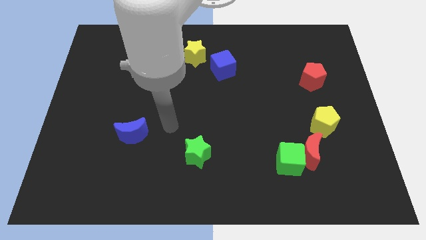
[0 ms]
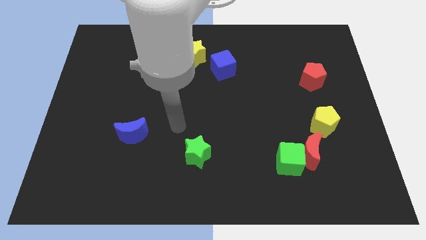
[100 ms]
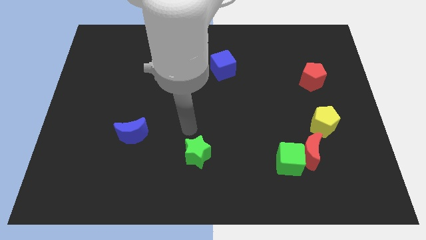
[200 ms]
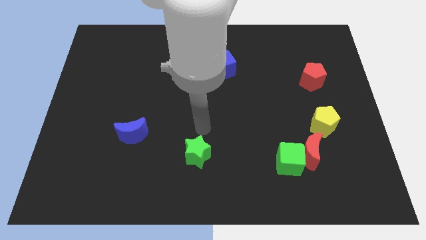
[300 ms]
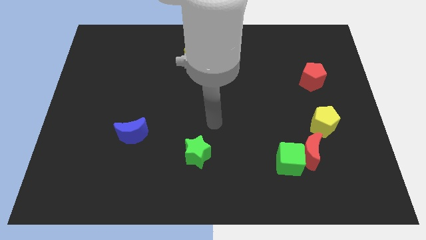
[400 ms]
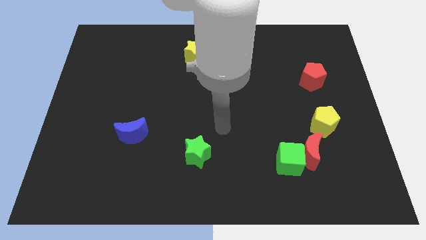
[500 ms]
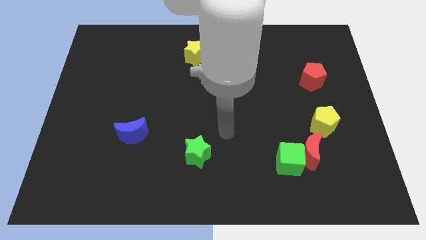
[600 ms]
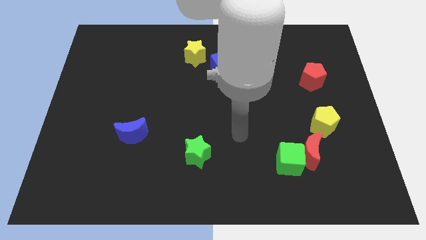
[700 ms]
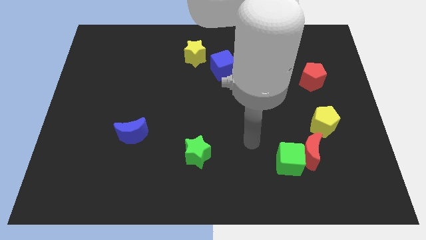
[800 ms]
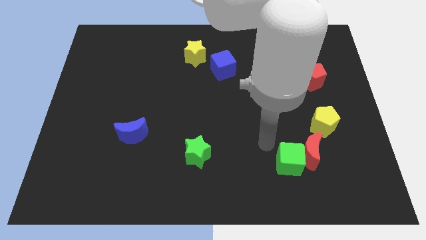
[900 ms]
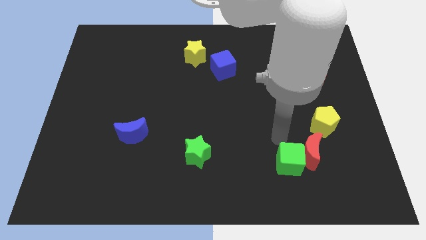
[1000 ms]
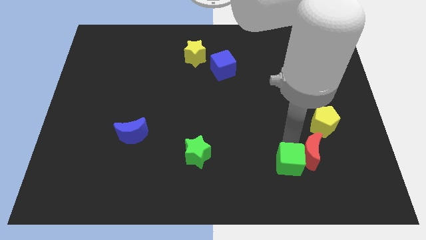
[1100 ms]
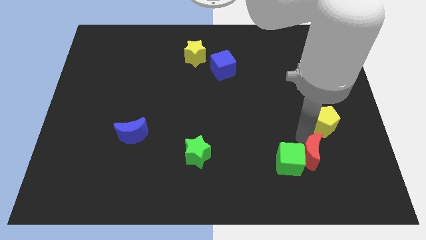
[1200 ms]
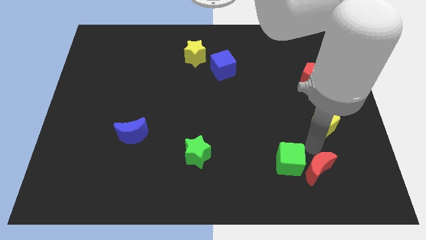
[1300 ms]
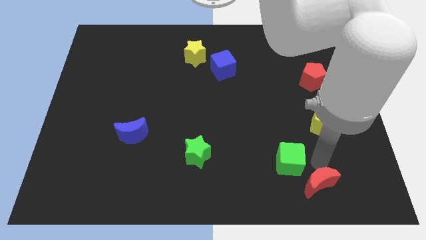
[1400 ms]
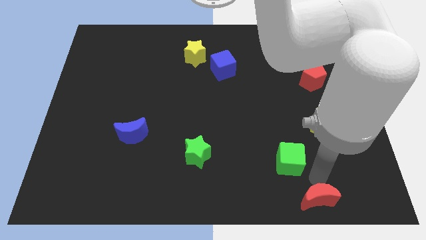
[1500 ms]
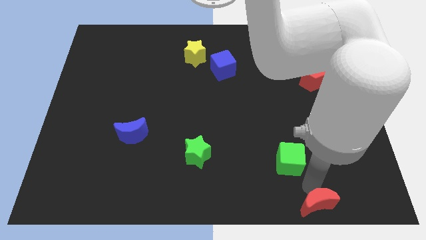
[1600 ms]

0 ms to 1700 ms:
pull the green cube apart from the red moon

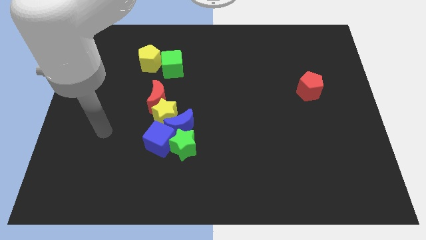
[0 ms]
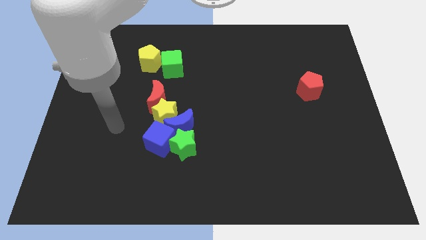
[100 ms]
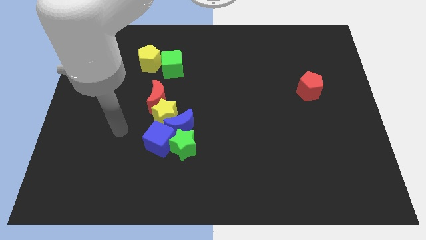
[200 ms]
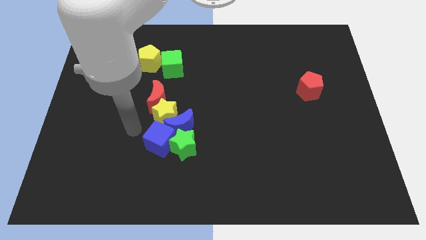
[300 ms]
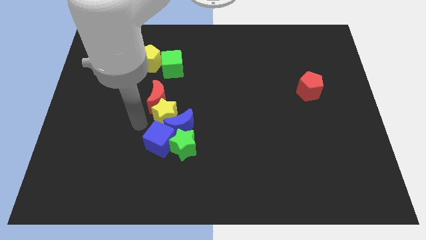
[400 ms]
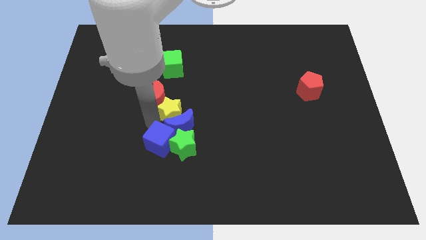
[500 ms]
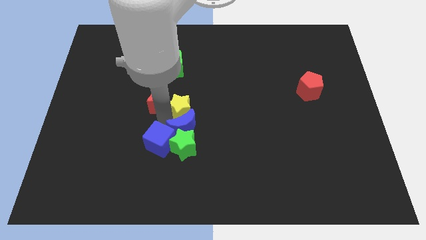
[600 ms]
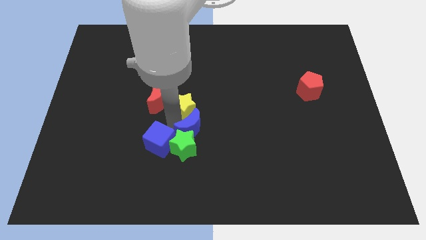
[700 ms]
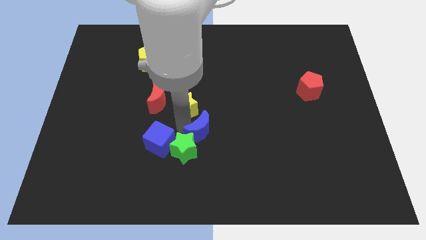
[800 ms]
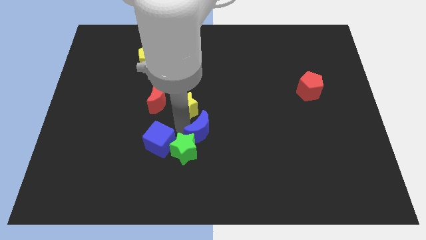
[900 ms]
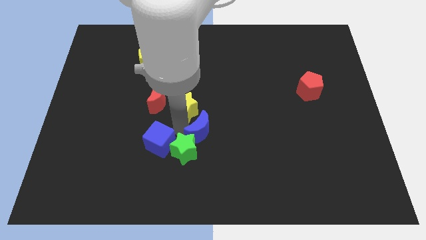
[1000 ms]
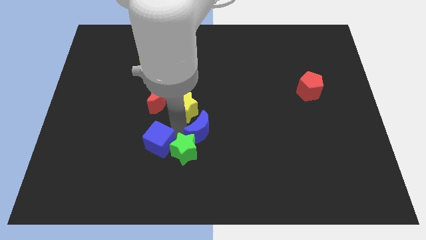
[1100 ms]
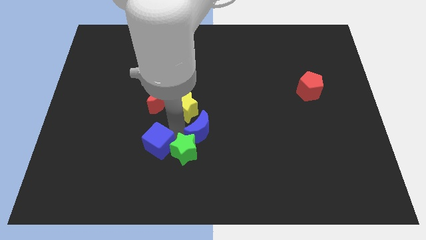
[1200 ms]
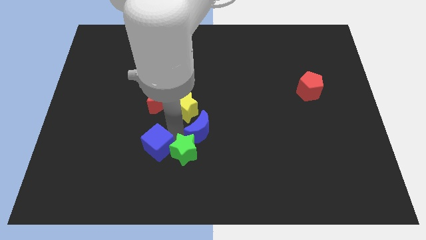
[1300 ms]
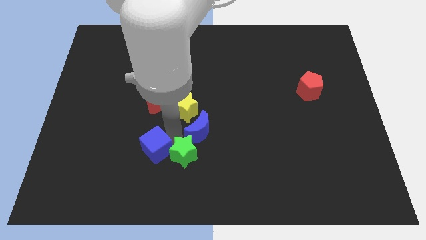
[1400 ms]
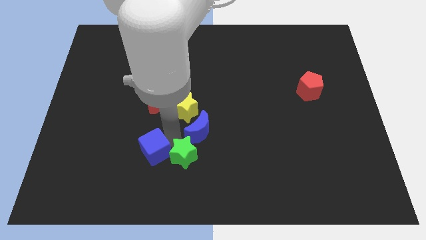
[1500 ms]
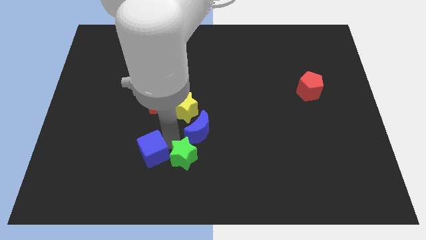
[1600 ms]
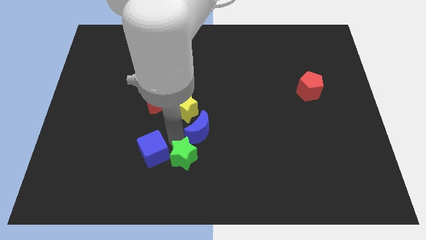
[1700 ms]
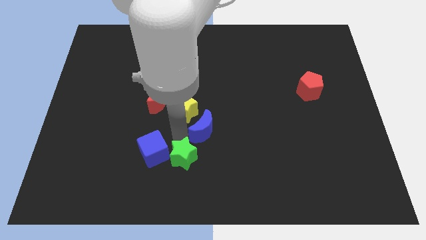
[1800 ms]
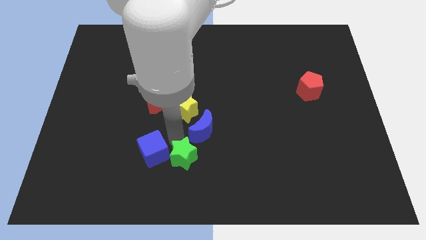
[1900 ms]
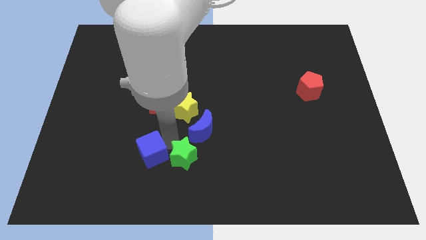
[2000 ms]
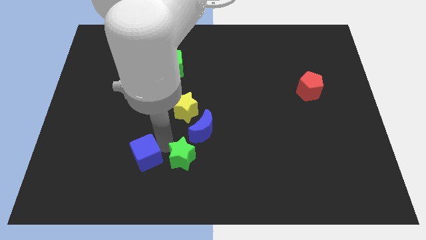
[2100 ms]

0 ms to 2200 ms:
move the blue cube away from the green star, blue moon, and yellow star

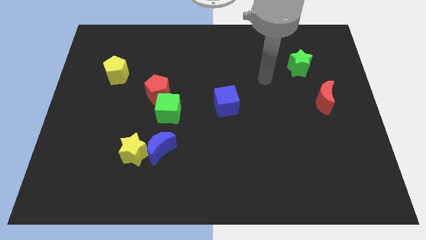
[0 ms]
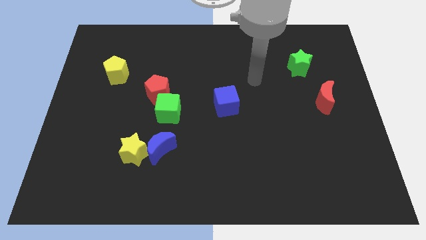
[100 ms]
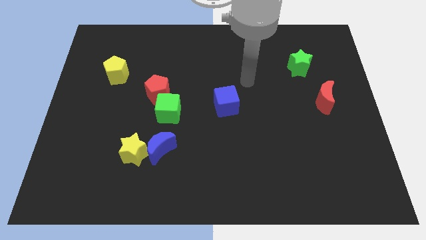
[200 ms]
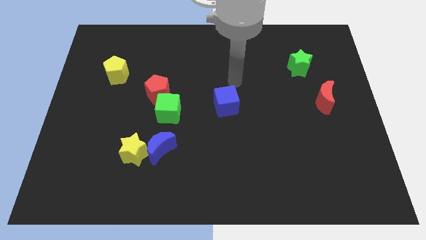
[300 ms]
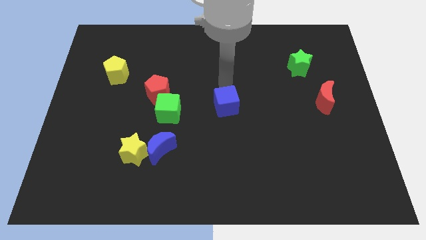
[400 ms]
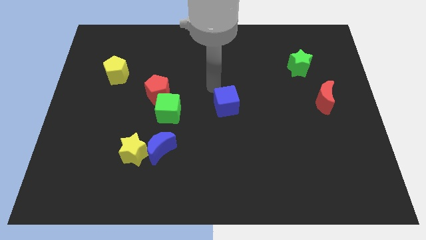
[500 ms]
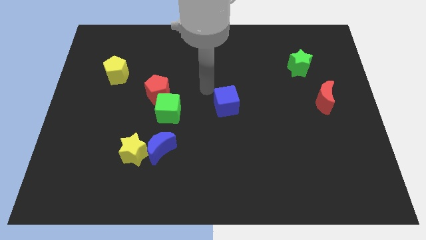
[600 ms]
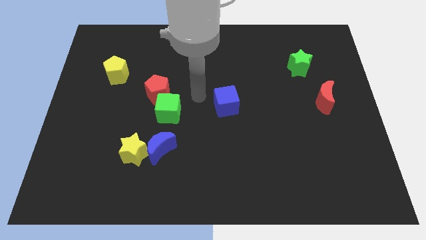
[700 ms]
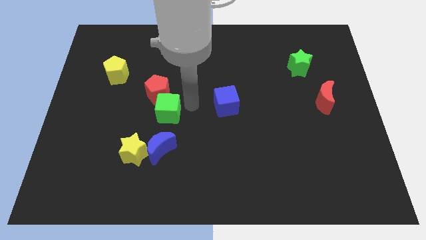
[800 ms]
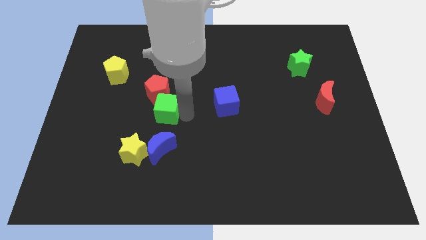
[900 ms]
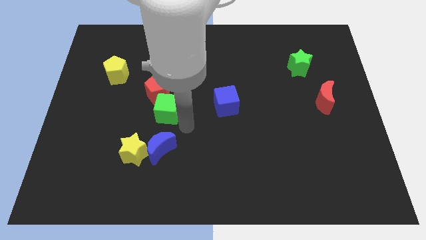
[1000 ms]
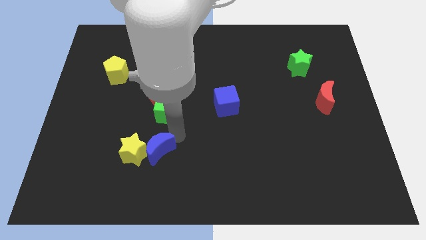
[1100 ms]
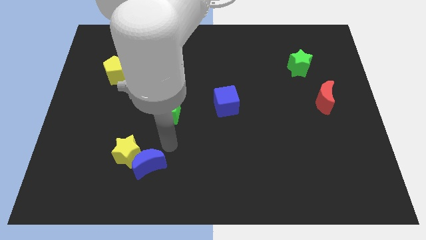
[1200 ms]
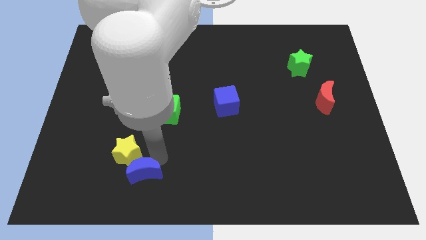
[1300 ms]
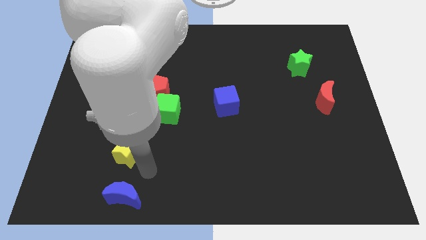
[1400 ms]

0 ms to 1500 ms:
move the yellow star away from the blue moon

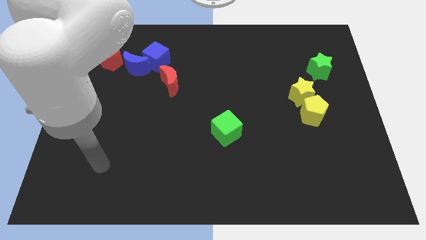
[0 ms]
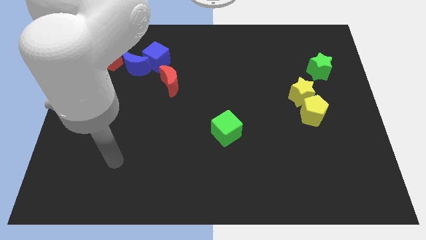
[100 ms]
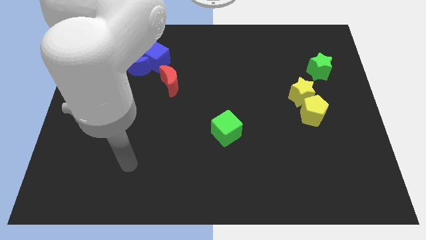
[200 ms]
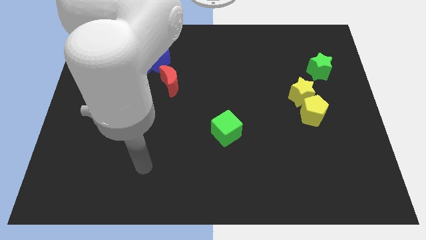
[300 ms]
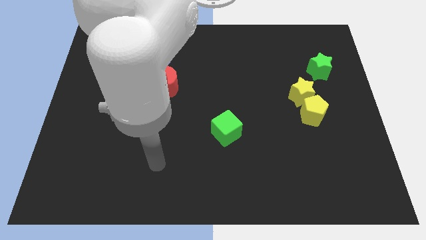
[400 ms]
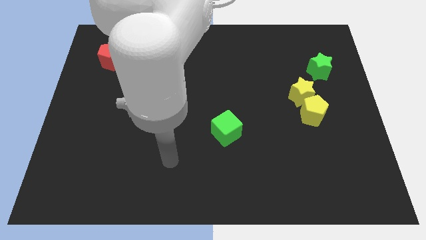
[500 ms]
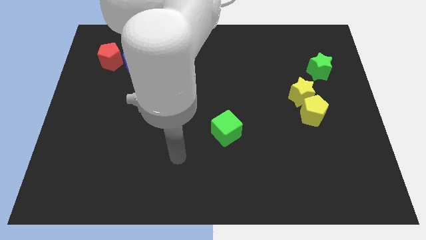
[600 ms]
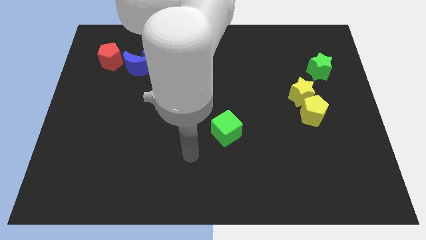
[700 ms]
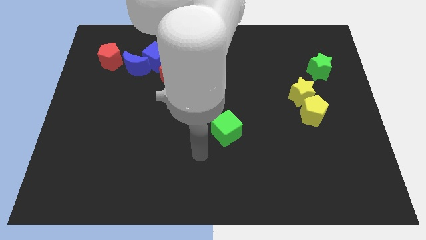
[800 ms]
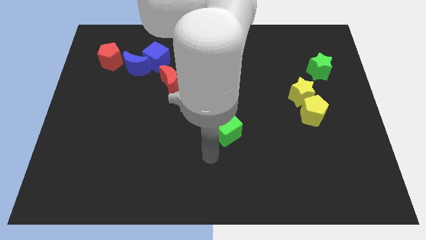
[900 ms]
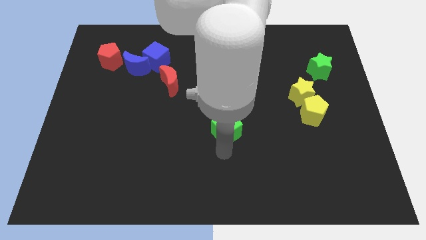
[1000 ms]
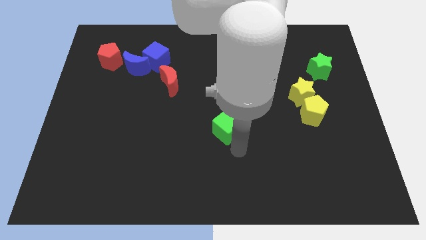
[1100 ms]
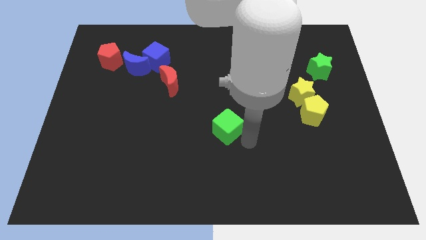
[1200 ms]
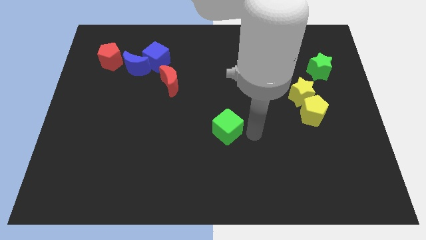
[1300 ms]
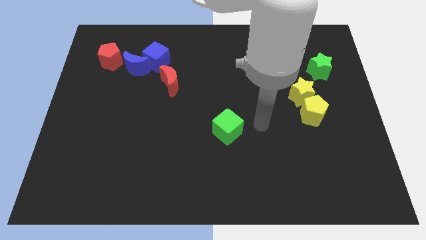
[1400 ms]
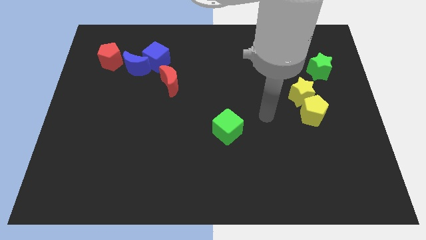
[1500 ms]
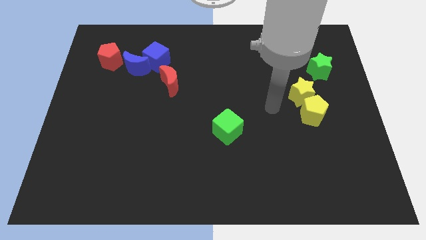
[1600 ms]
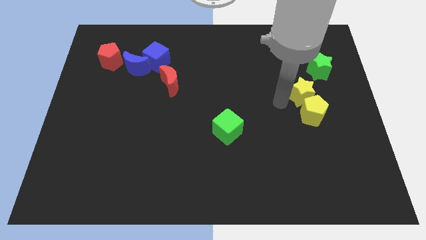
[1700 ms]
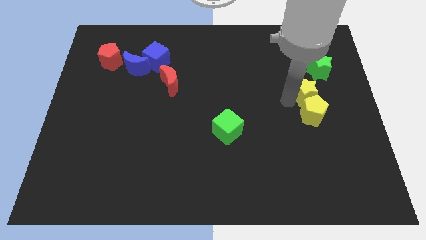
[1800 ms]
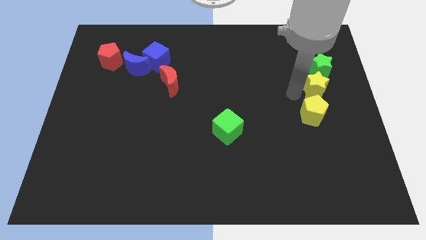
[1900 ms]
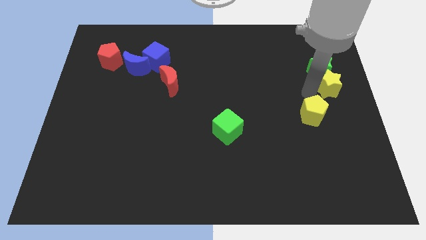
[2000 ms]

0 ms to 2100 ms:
separate the yellow pentagon from the yellow star

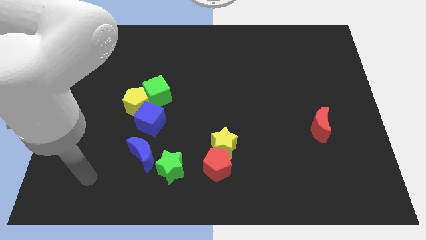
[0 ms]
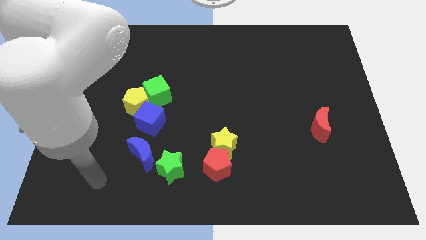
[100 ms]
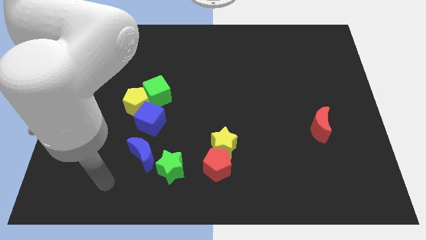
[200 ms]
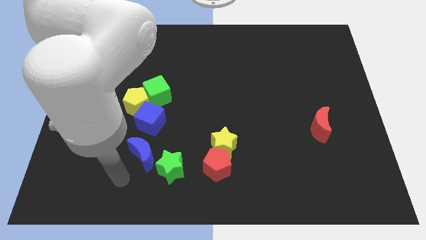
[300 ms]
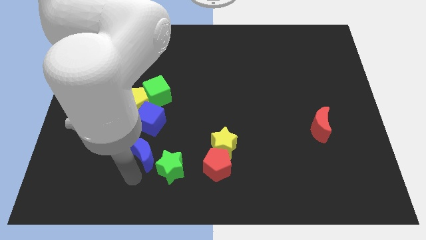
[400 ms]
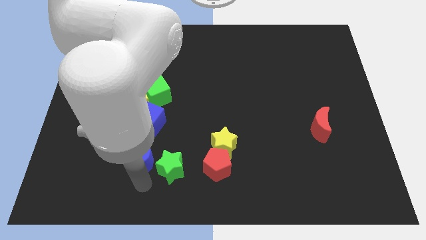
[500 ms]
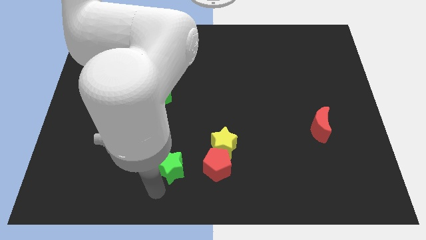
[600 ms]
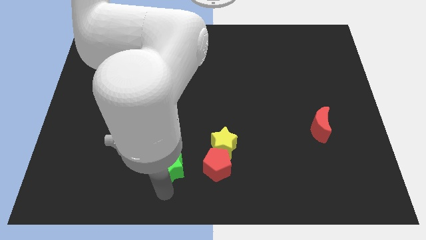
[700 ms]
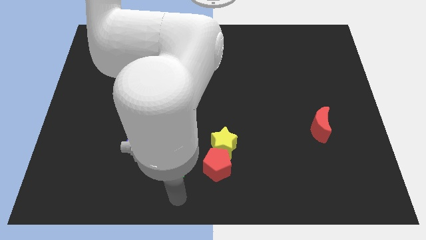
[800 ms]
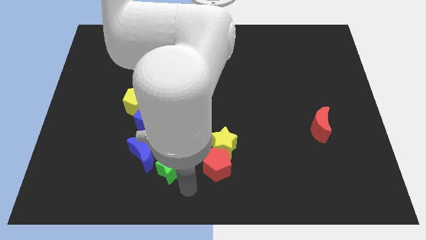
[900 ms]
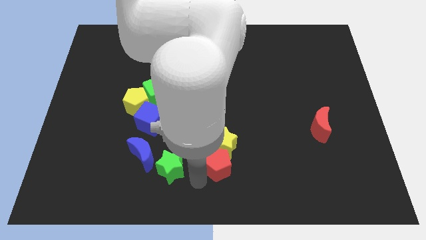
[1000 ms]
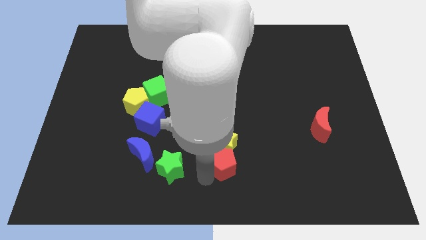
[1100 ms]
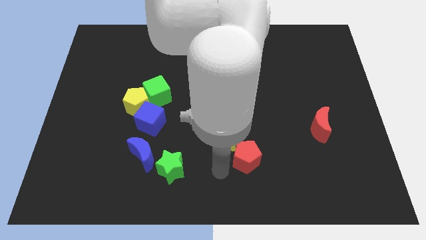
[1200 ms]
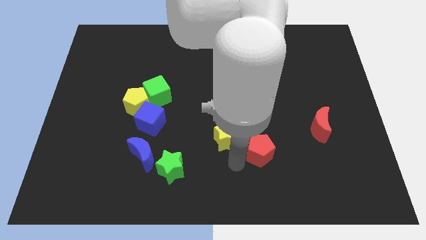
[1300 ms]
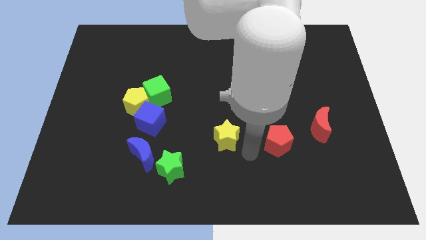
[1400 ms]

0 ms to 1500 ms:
move the yellow star away from the red pentagon

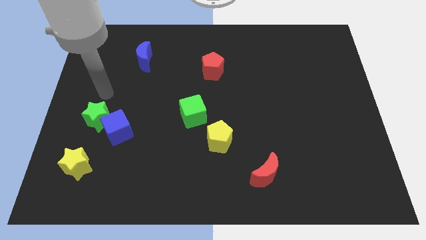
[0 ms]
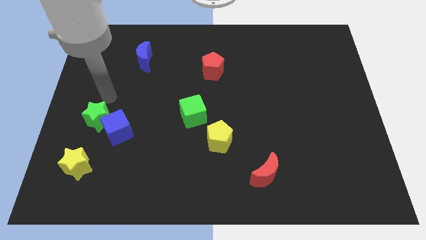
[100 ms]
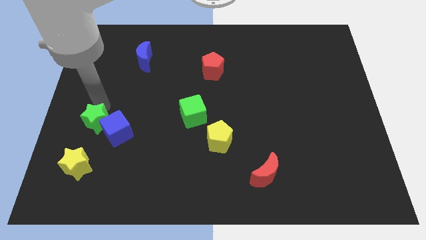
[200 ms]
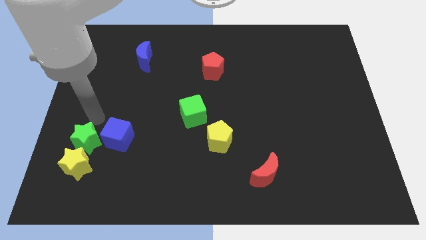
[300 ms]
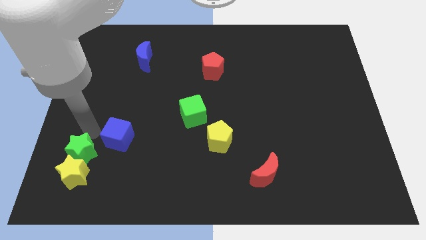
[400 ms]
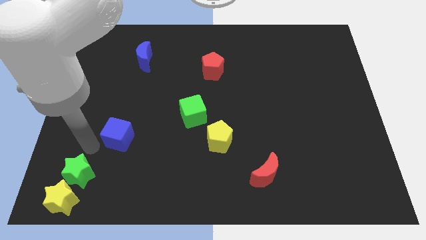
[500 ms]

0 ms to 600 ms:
pull the blue cube apart from the green star
